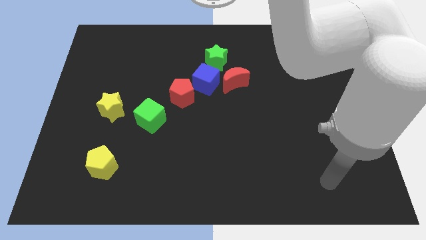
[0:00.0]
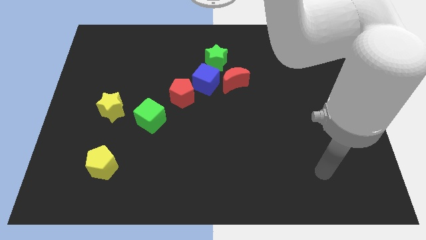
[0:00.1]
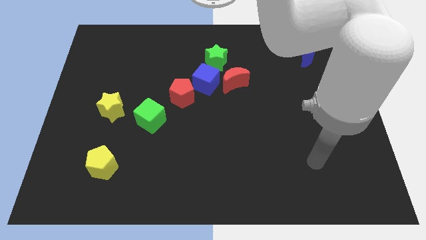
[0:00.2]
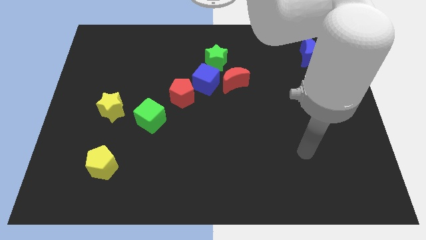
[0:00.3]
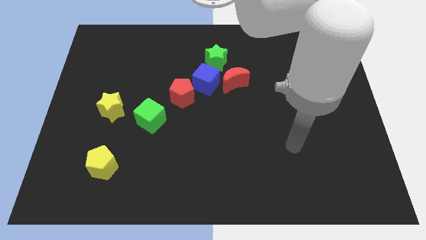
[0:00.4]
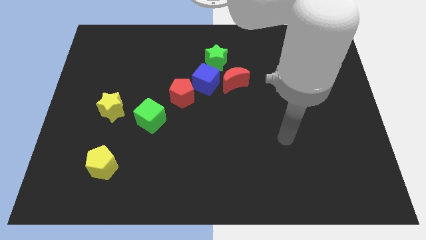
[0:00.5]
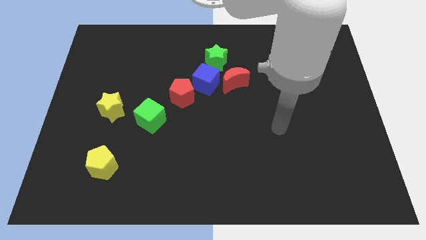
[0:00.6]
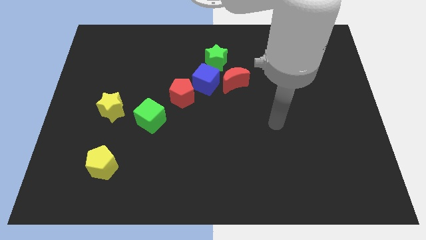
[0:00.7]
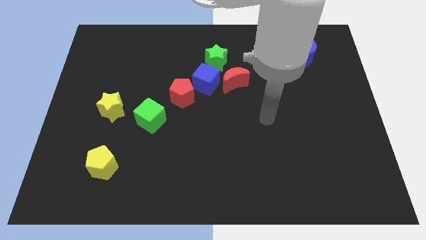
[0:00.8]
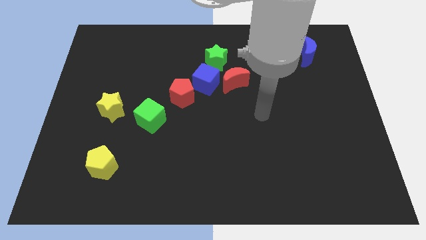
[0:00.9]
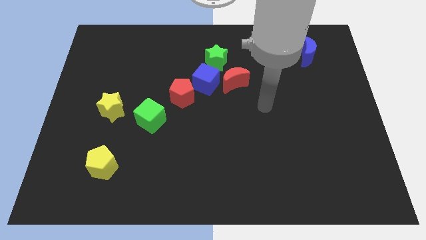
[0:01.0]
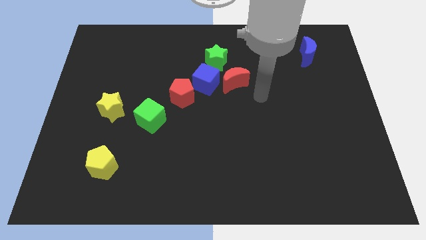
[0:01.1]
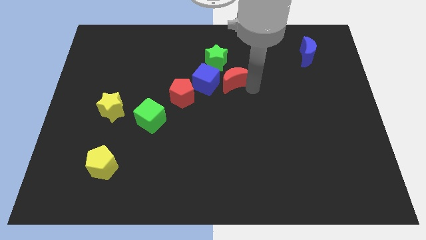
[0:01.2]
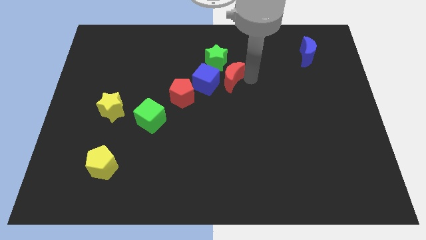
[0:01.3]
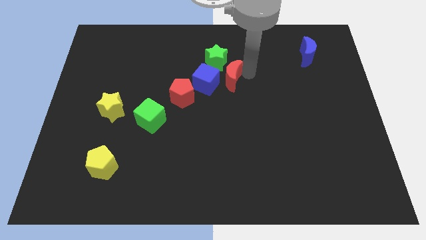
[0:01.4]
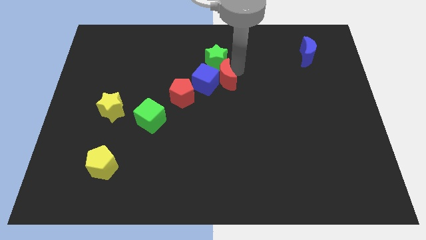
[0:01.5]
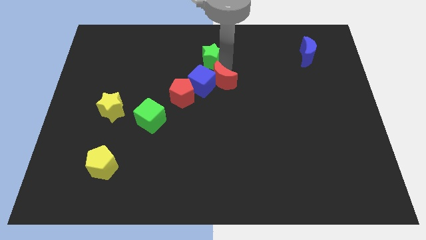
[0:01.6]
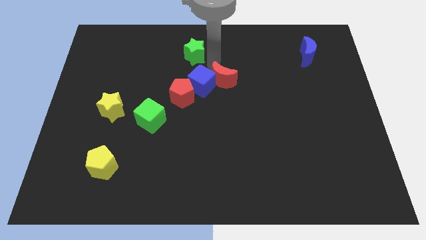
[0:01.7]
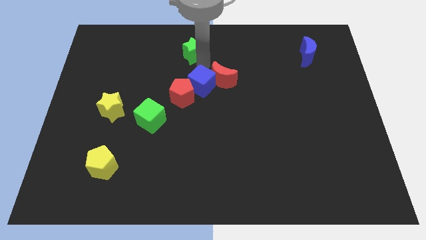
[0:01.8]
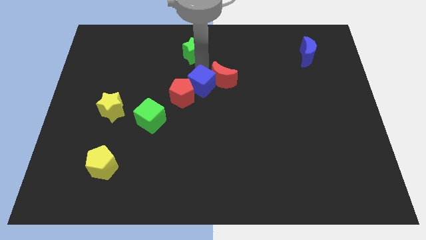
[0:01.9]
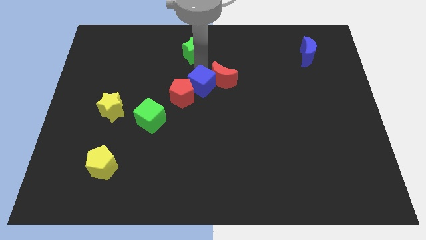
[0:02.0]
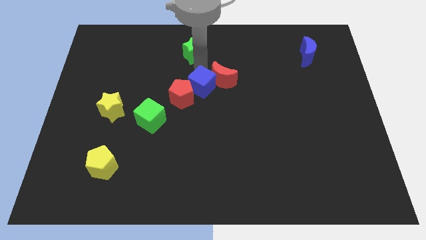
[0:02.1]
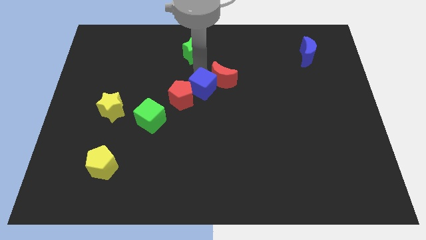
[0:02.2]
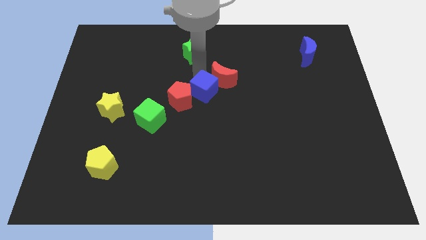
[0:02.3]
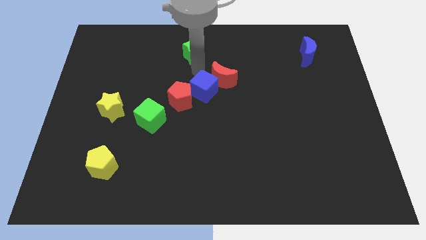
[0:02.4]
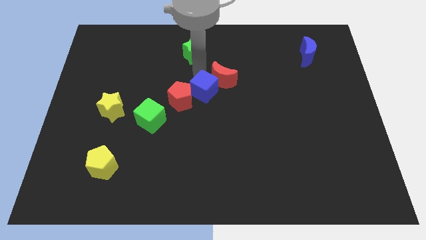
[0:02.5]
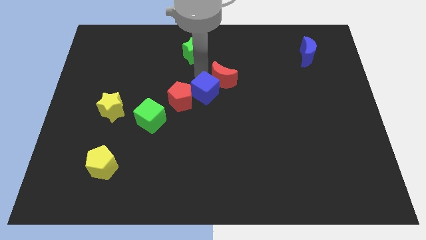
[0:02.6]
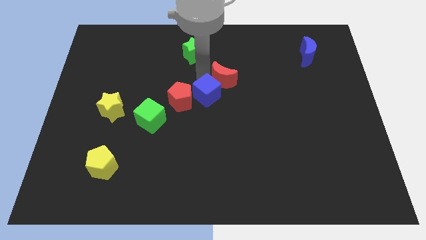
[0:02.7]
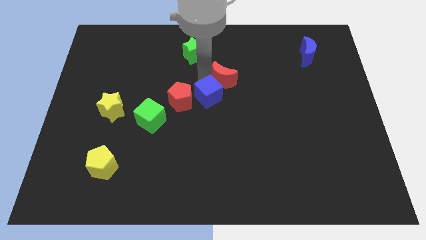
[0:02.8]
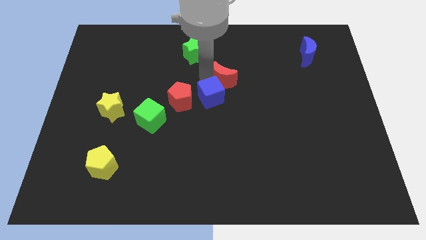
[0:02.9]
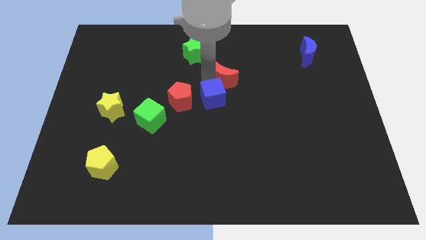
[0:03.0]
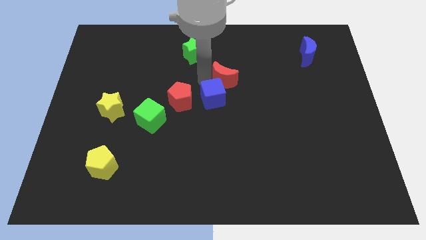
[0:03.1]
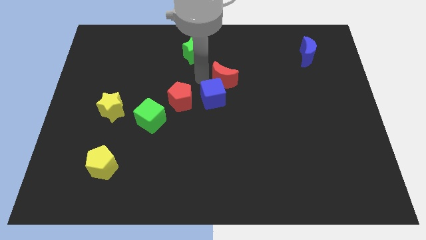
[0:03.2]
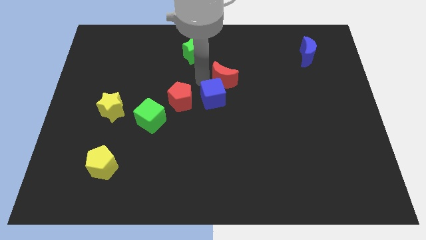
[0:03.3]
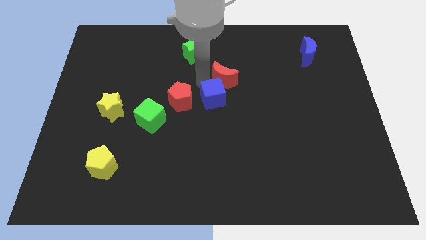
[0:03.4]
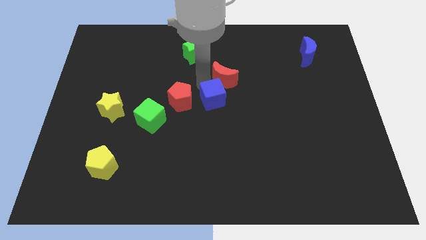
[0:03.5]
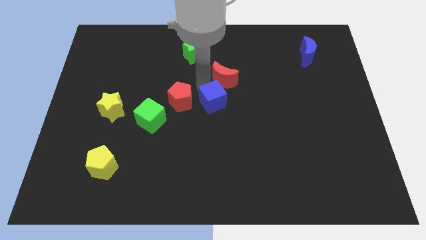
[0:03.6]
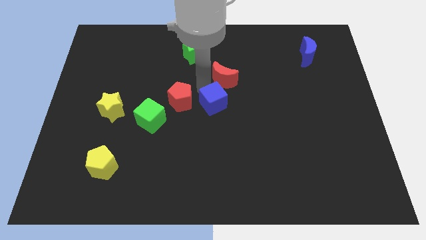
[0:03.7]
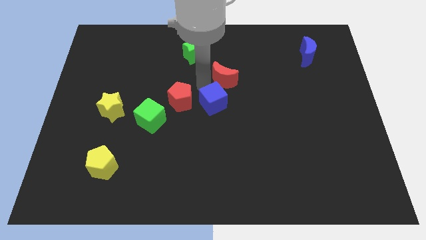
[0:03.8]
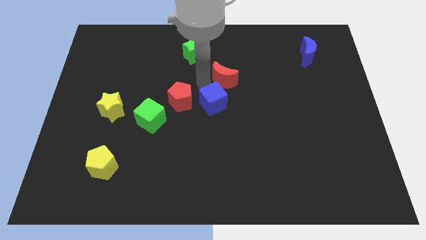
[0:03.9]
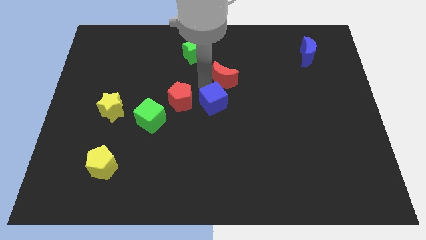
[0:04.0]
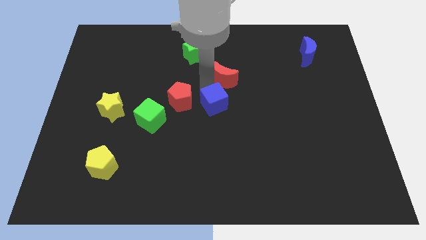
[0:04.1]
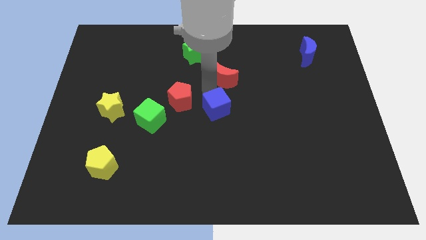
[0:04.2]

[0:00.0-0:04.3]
separate the blue cube from the group

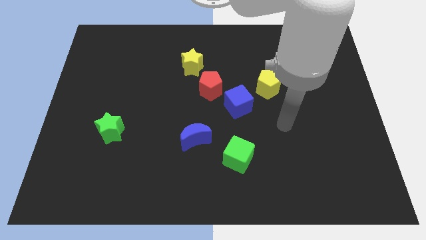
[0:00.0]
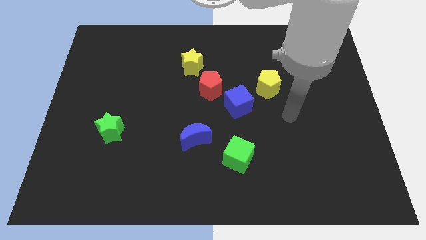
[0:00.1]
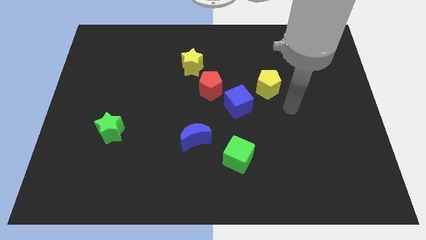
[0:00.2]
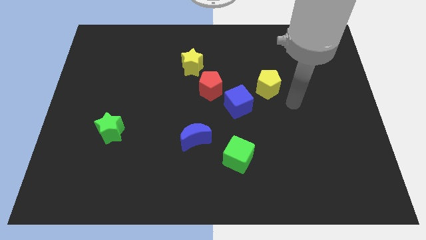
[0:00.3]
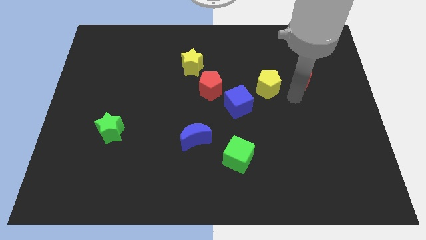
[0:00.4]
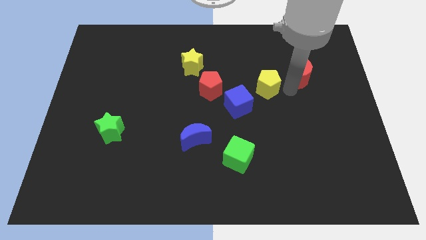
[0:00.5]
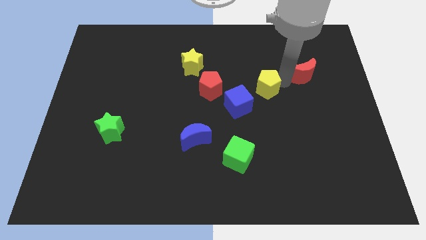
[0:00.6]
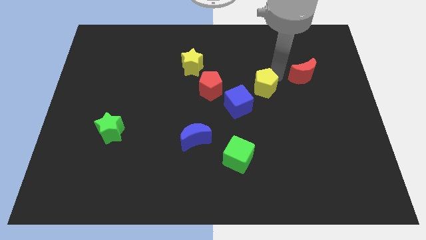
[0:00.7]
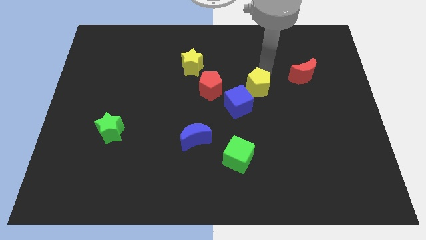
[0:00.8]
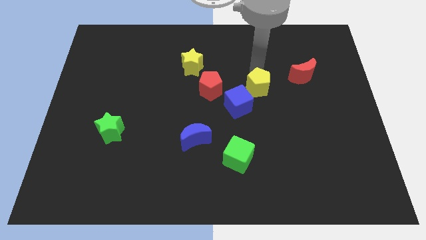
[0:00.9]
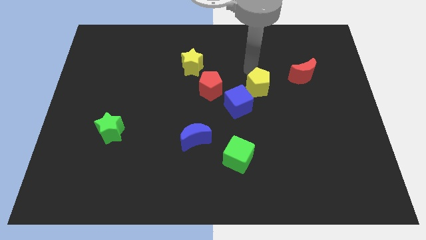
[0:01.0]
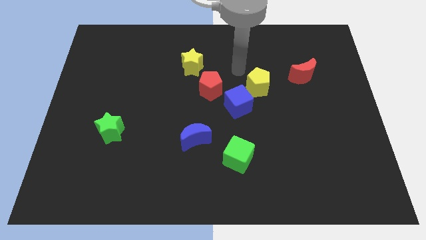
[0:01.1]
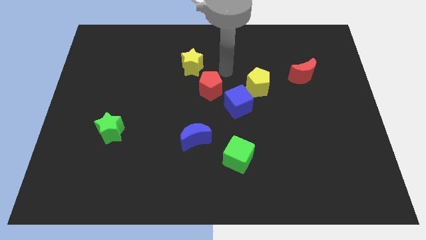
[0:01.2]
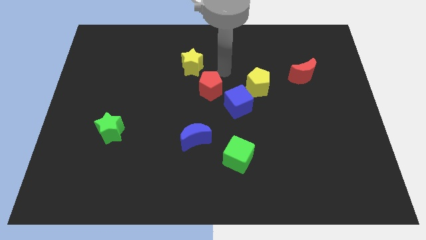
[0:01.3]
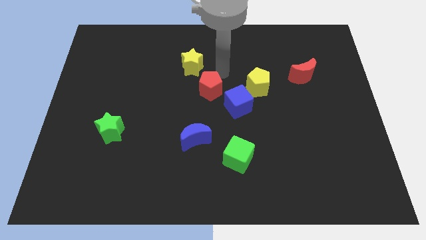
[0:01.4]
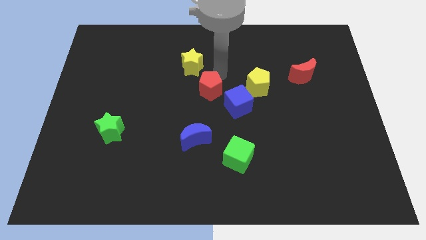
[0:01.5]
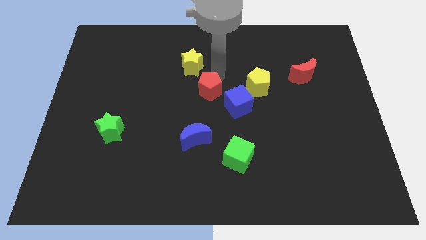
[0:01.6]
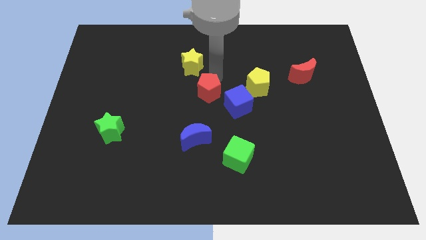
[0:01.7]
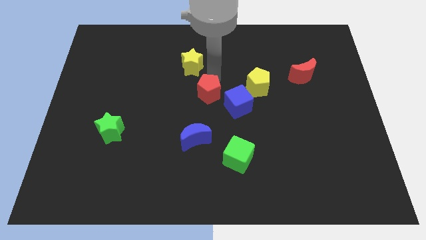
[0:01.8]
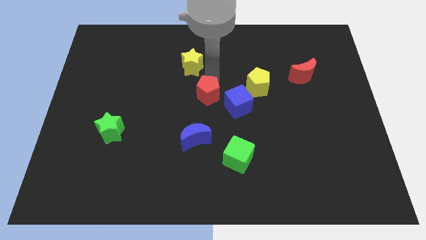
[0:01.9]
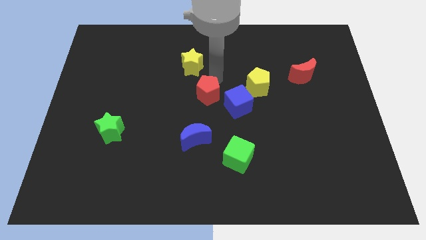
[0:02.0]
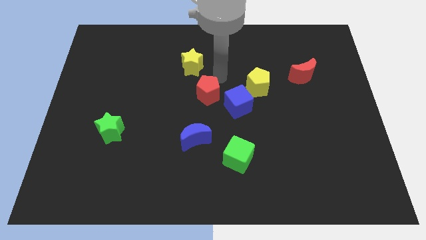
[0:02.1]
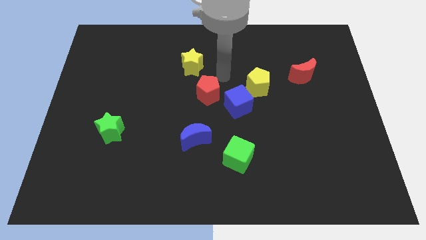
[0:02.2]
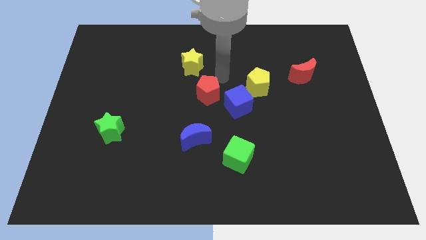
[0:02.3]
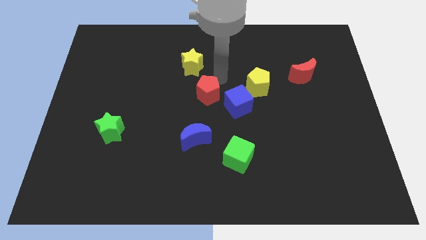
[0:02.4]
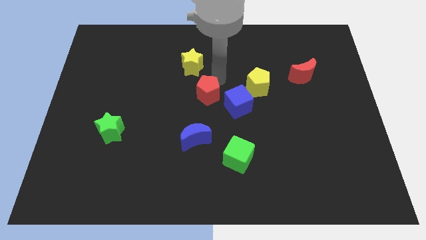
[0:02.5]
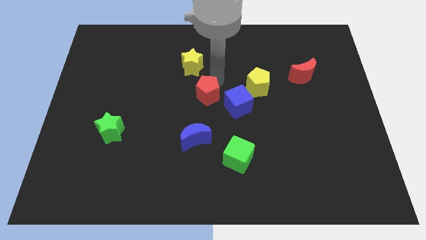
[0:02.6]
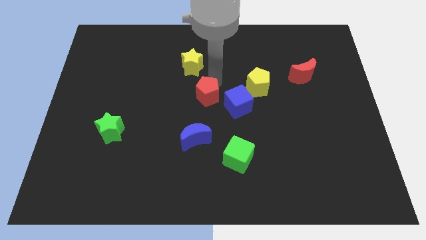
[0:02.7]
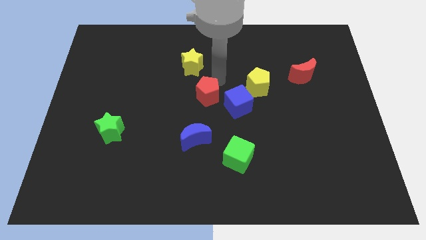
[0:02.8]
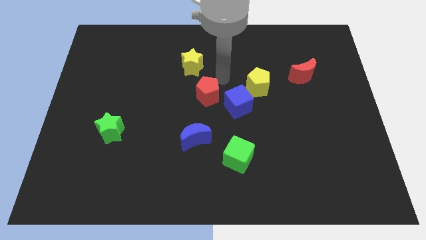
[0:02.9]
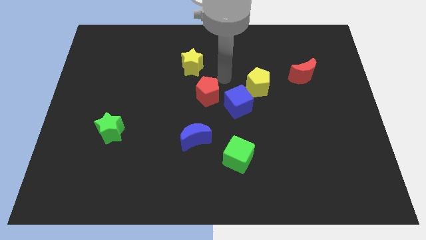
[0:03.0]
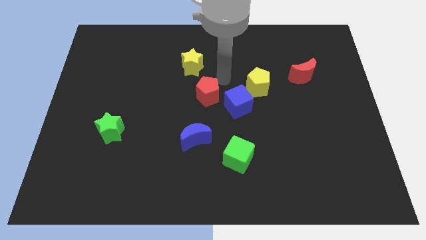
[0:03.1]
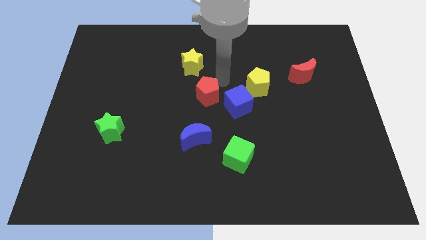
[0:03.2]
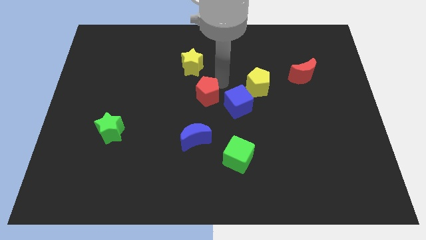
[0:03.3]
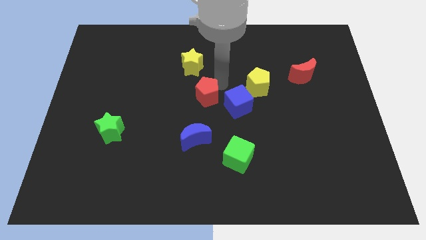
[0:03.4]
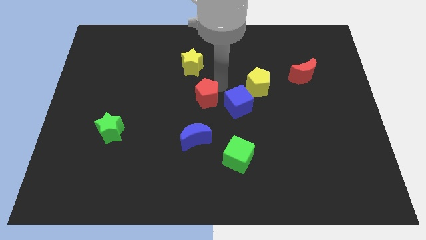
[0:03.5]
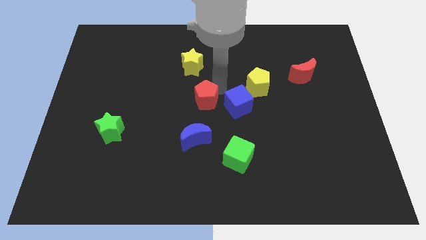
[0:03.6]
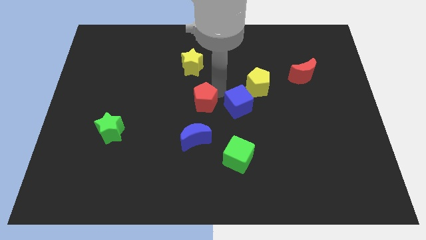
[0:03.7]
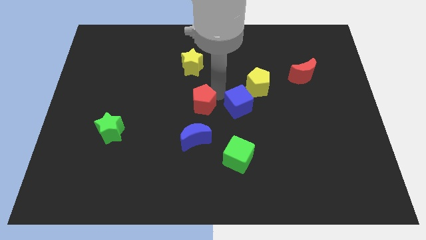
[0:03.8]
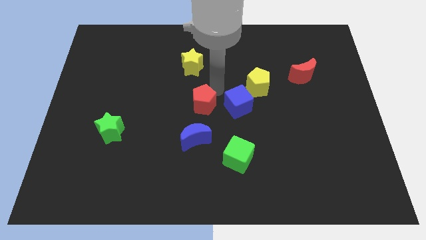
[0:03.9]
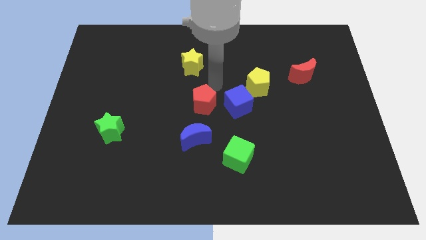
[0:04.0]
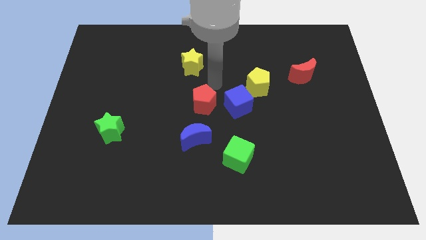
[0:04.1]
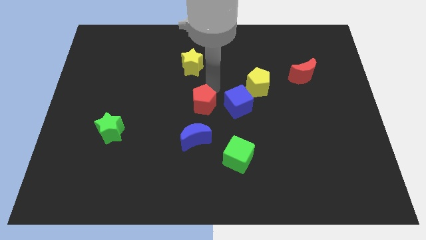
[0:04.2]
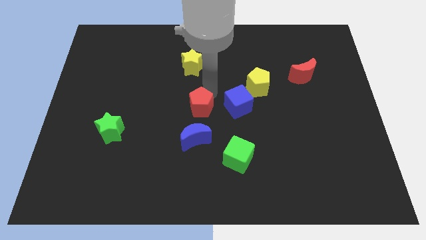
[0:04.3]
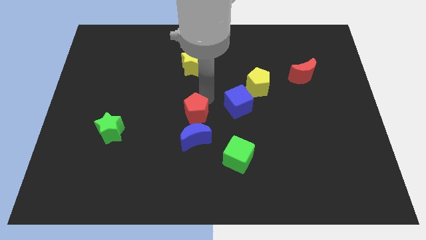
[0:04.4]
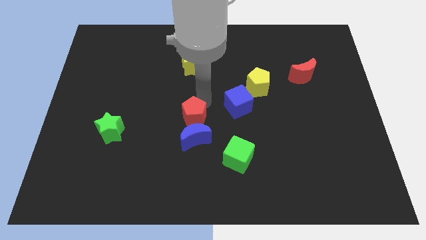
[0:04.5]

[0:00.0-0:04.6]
move the red pentagon away from the blue cube and yellow star

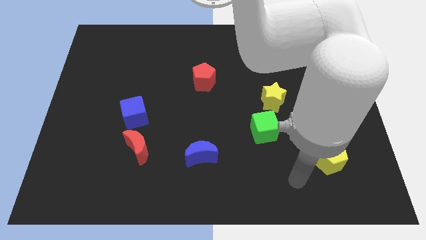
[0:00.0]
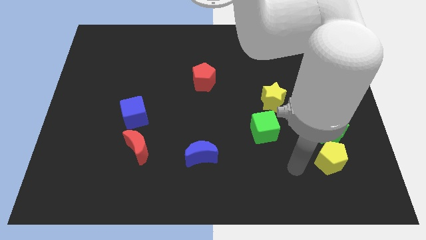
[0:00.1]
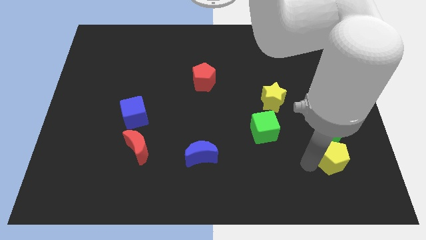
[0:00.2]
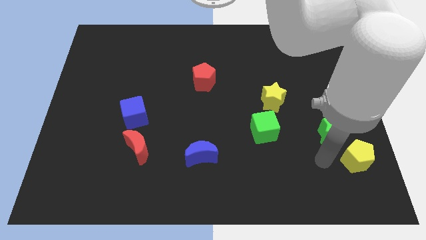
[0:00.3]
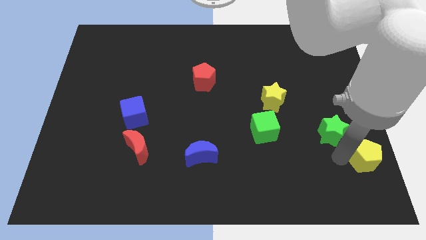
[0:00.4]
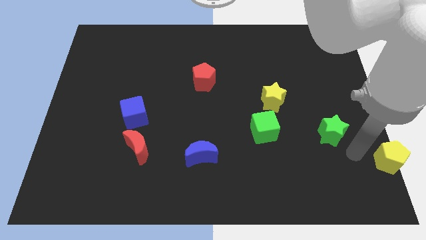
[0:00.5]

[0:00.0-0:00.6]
separate the green star from the yellow pentagon
